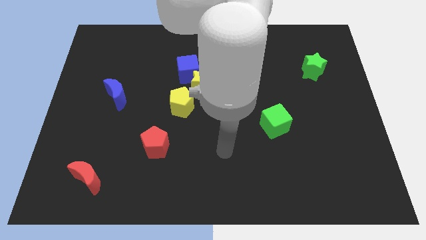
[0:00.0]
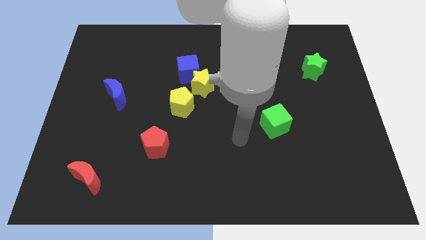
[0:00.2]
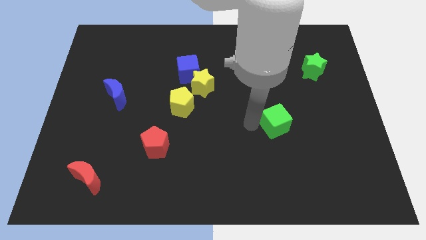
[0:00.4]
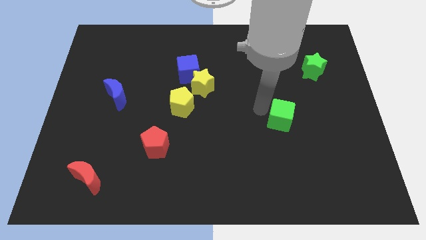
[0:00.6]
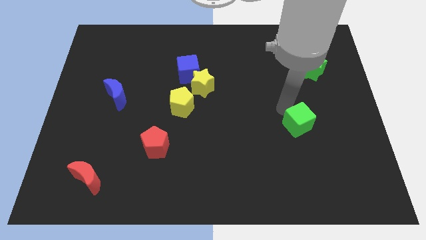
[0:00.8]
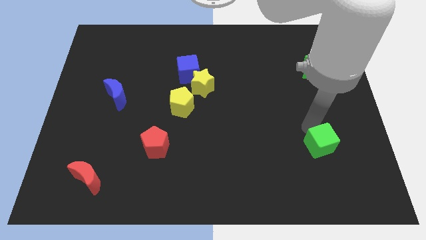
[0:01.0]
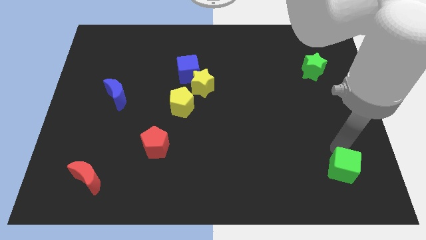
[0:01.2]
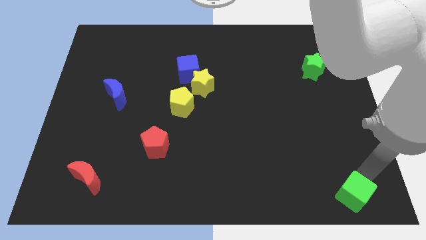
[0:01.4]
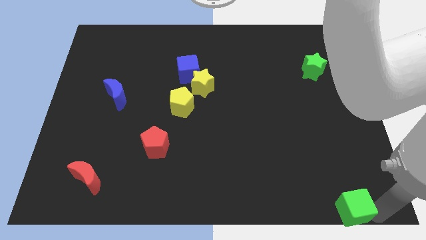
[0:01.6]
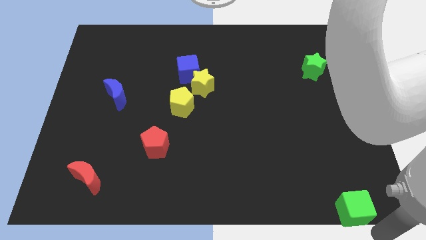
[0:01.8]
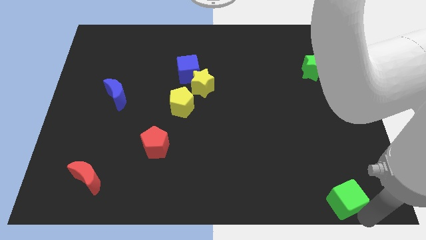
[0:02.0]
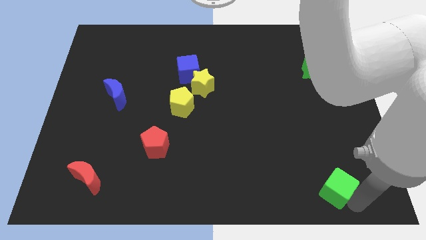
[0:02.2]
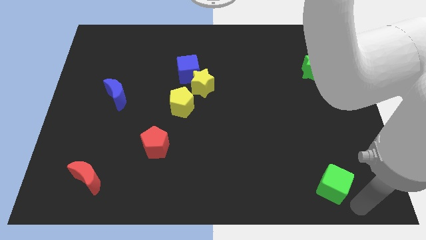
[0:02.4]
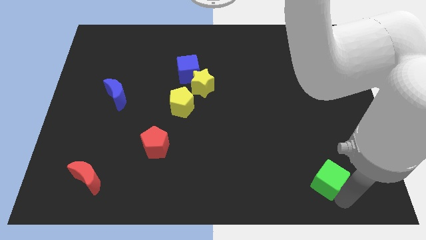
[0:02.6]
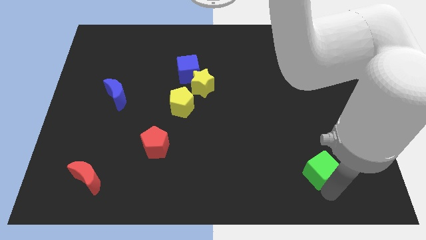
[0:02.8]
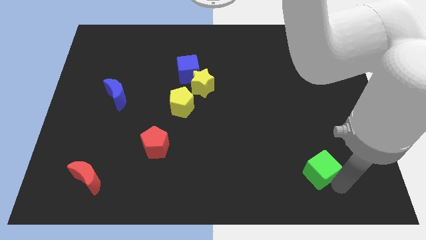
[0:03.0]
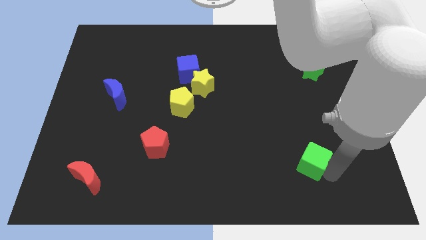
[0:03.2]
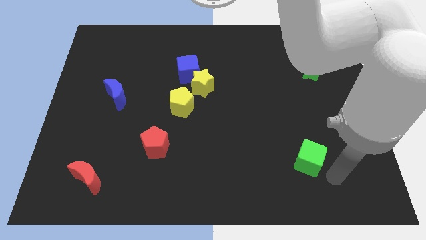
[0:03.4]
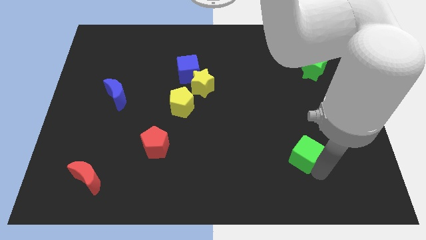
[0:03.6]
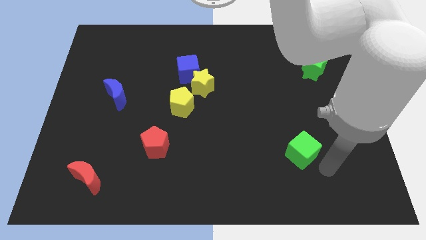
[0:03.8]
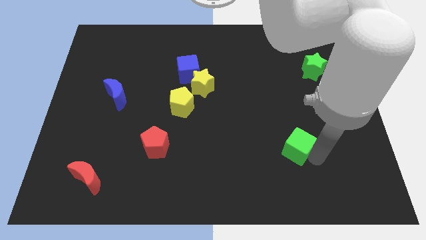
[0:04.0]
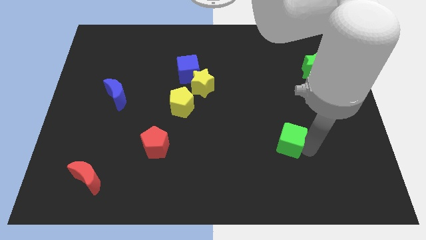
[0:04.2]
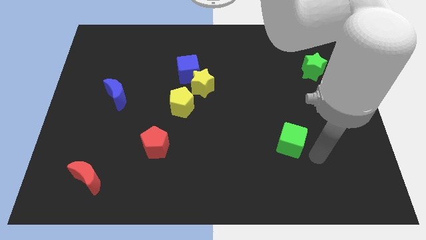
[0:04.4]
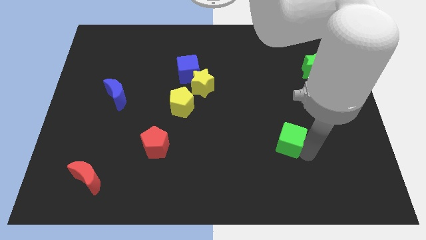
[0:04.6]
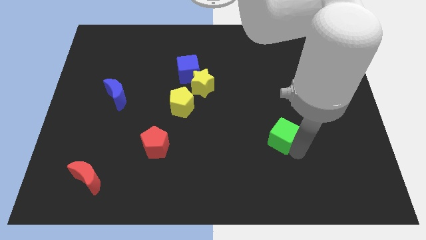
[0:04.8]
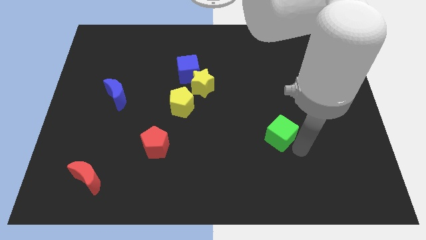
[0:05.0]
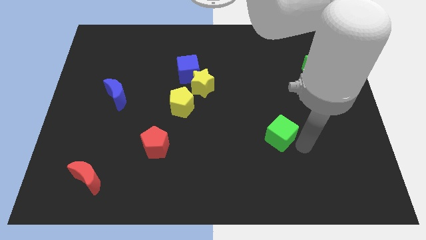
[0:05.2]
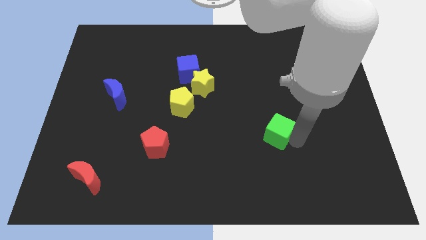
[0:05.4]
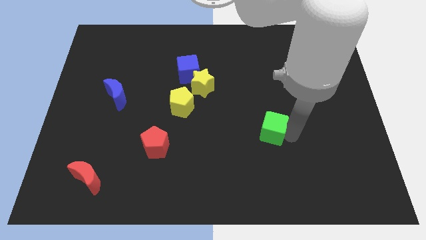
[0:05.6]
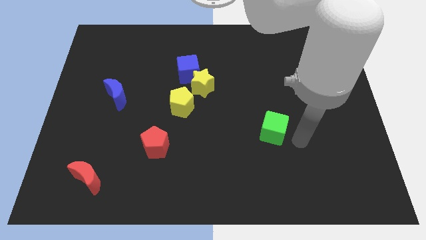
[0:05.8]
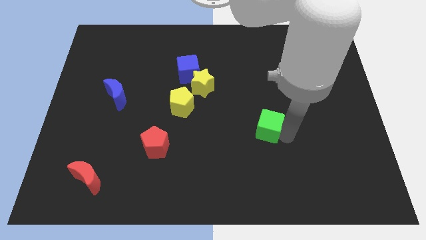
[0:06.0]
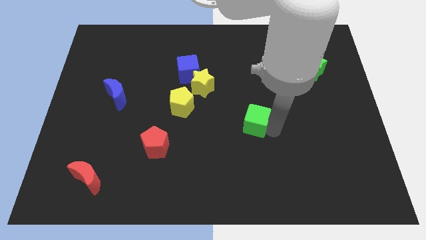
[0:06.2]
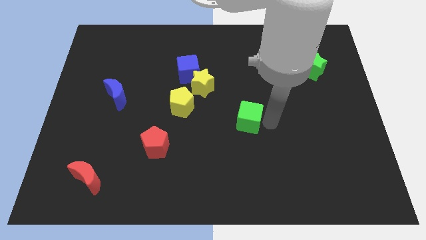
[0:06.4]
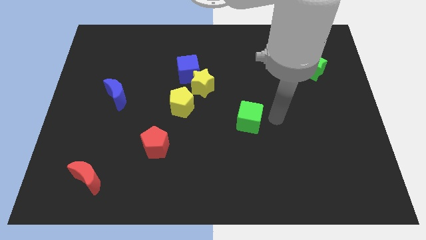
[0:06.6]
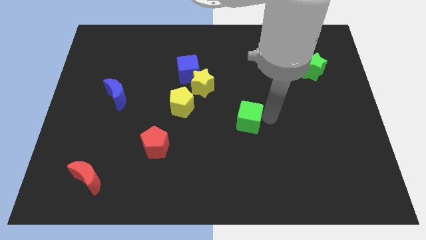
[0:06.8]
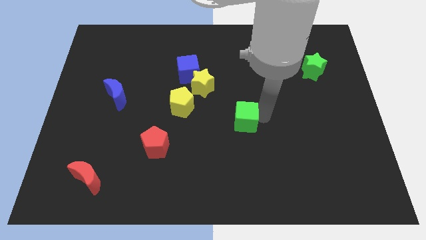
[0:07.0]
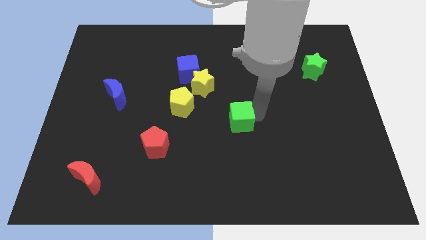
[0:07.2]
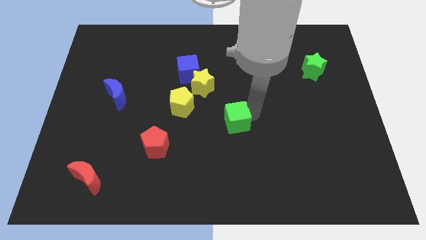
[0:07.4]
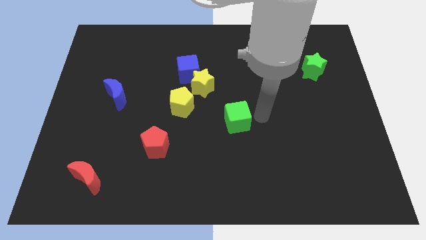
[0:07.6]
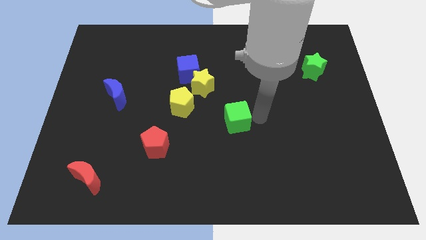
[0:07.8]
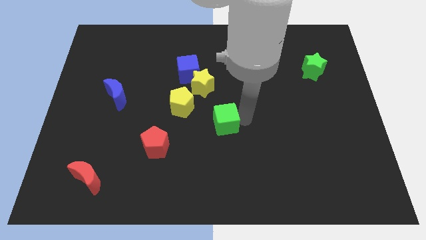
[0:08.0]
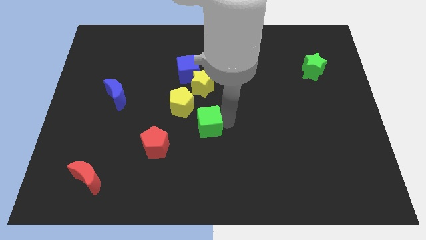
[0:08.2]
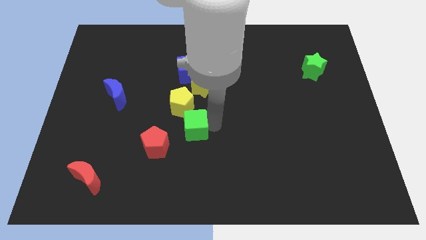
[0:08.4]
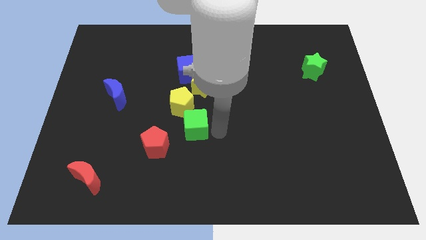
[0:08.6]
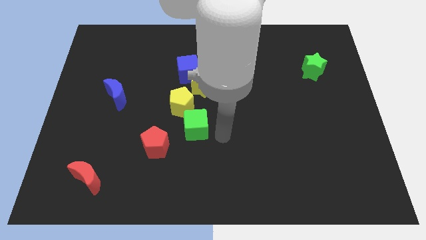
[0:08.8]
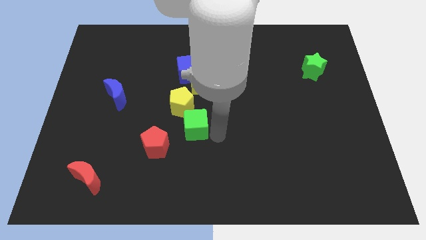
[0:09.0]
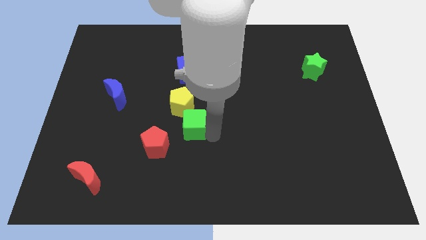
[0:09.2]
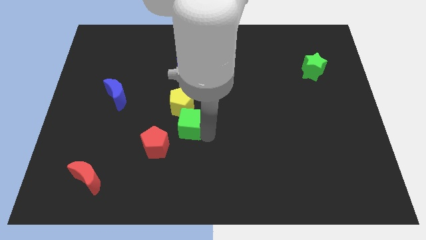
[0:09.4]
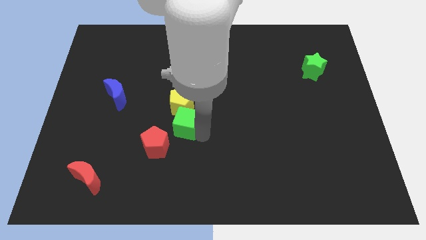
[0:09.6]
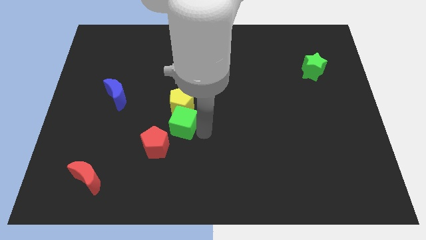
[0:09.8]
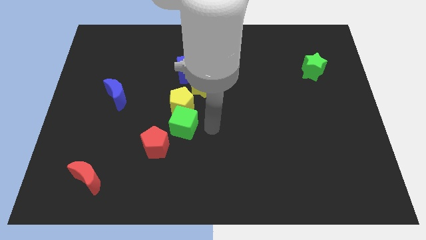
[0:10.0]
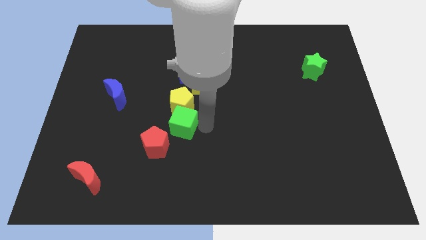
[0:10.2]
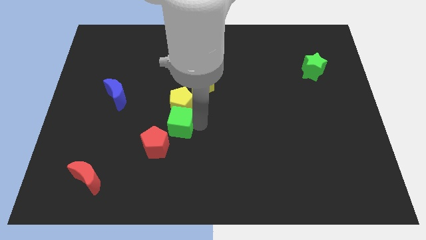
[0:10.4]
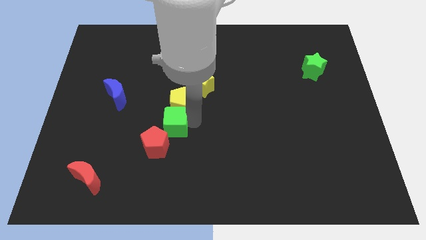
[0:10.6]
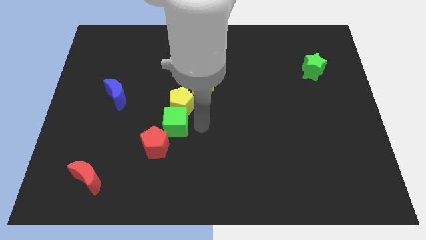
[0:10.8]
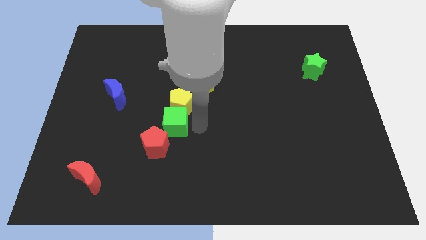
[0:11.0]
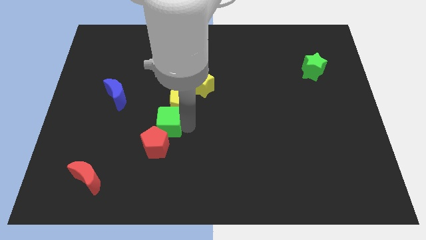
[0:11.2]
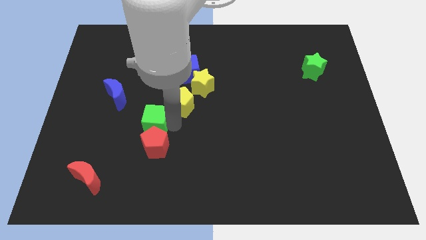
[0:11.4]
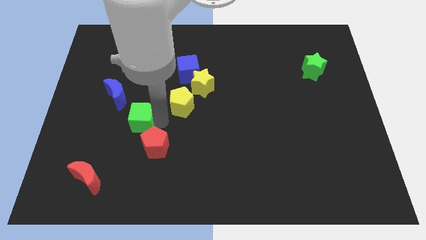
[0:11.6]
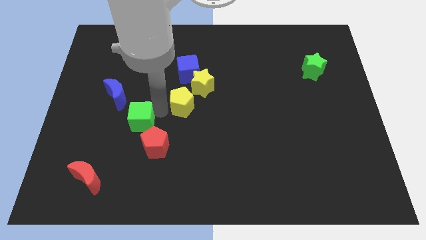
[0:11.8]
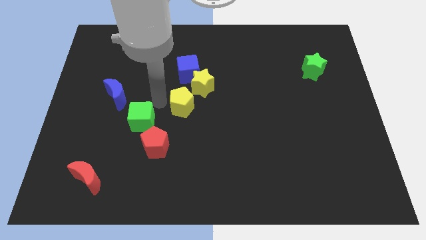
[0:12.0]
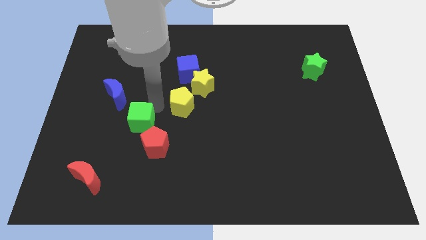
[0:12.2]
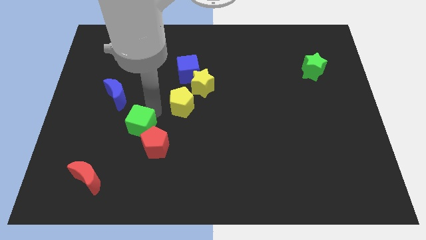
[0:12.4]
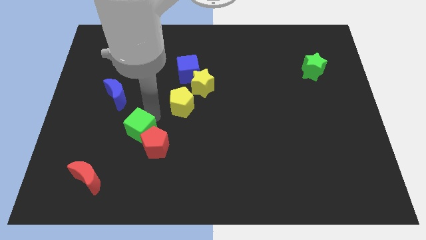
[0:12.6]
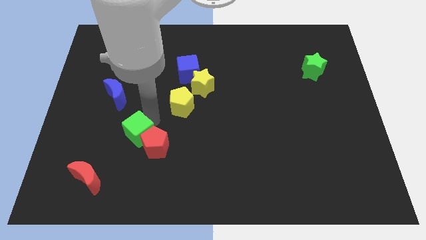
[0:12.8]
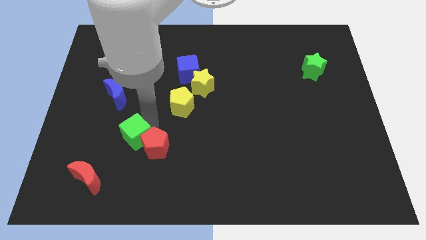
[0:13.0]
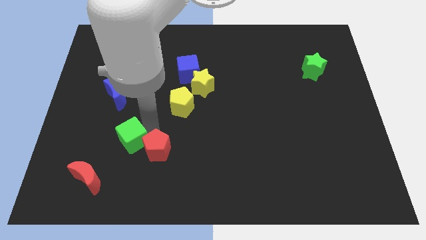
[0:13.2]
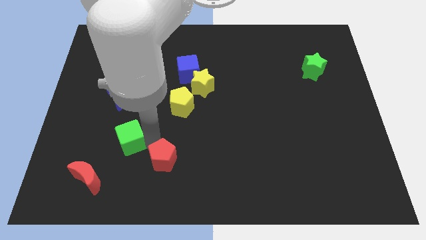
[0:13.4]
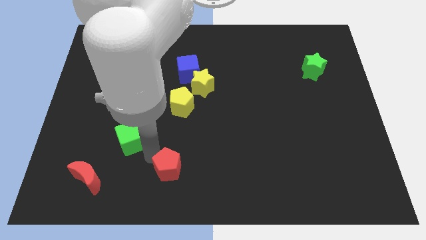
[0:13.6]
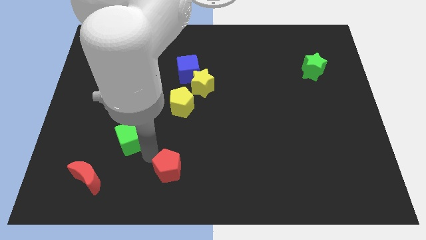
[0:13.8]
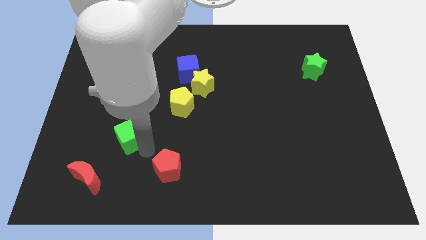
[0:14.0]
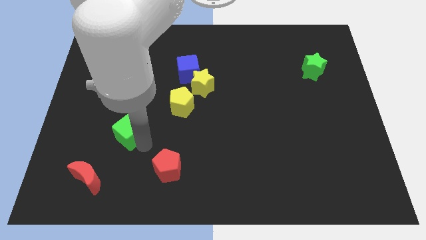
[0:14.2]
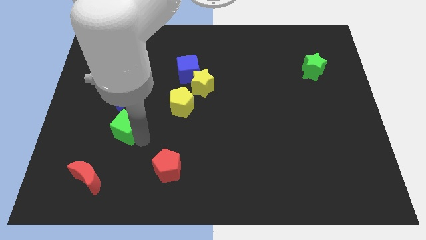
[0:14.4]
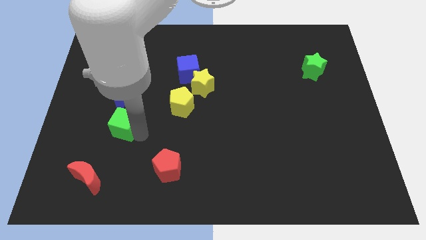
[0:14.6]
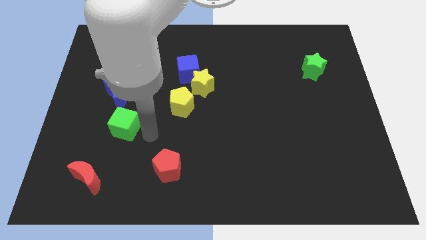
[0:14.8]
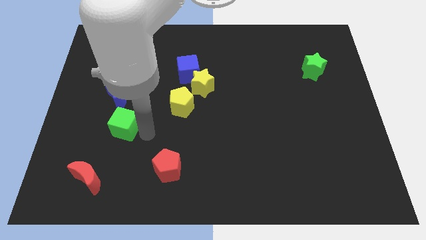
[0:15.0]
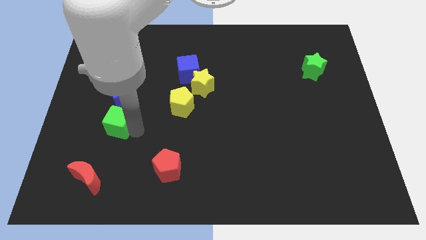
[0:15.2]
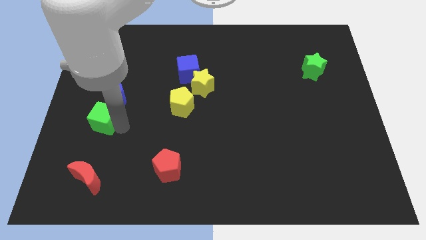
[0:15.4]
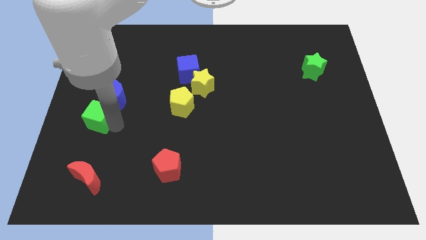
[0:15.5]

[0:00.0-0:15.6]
put the green cube to the left side
